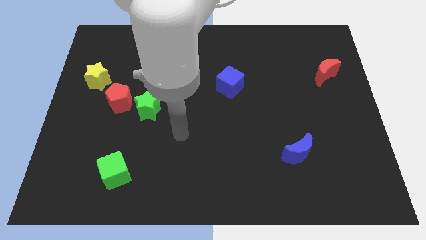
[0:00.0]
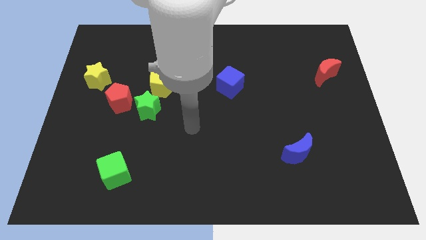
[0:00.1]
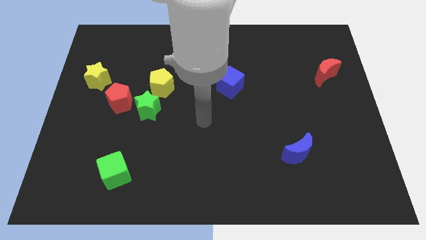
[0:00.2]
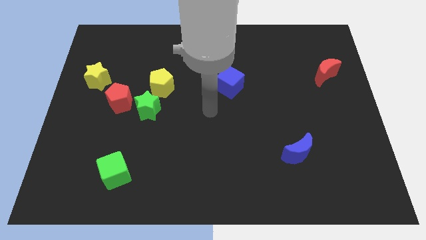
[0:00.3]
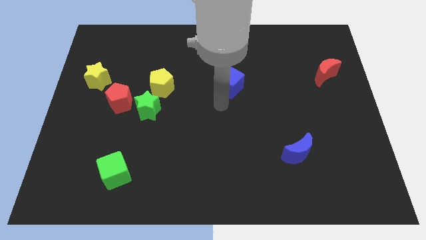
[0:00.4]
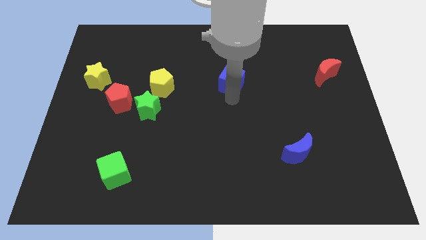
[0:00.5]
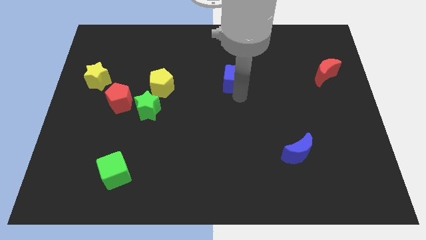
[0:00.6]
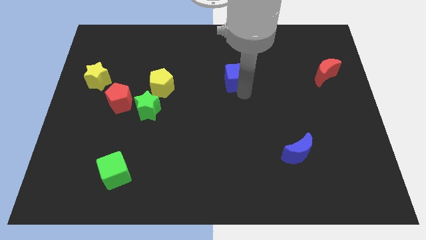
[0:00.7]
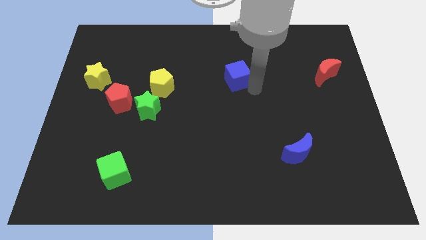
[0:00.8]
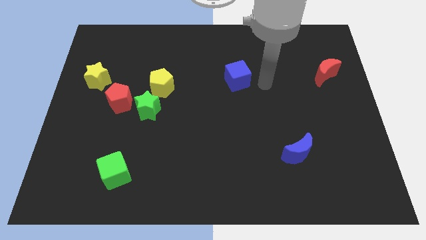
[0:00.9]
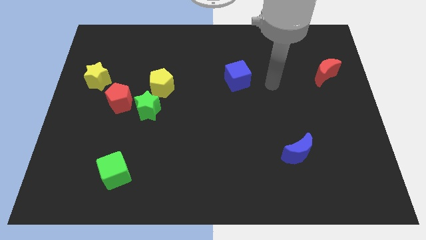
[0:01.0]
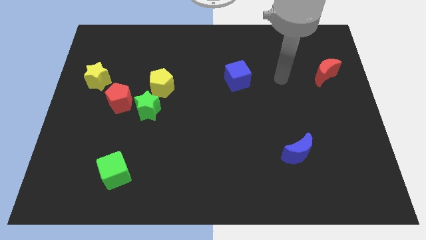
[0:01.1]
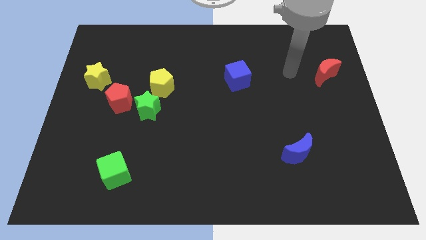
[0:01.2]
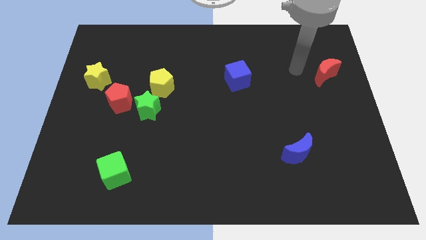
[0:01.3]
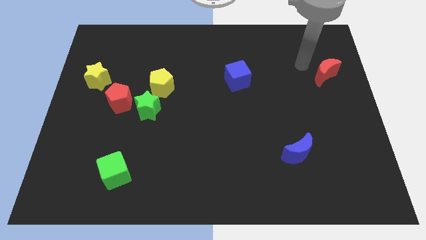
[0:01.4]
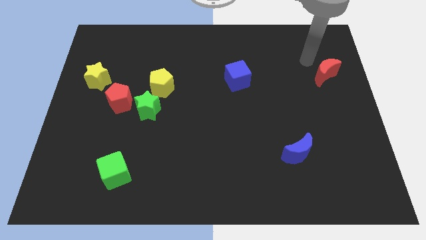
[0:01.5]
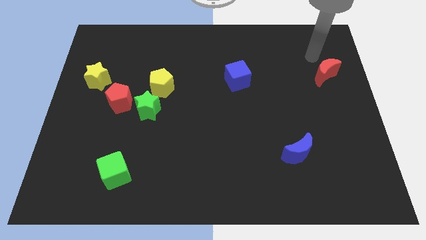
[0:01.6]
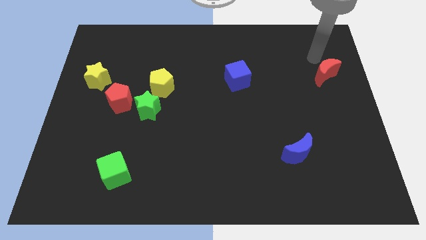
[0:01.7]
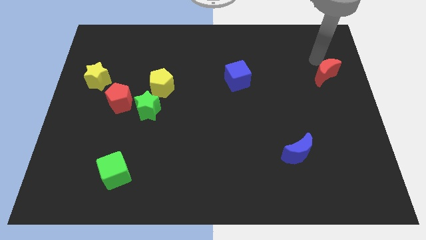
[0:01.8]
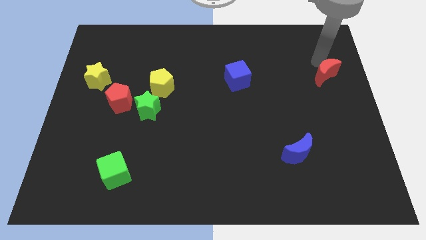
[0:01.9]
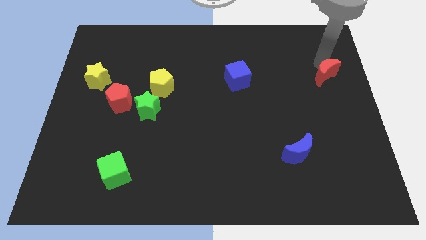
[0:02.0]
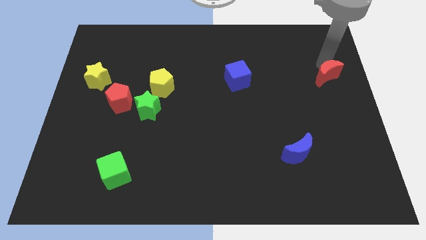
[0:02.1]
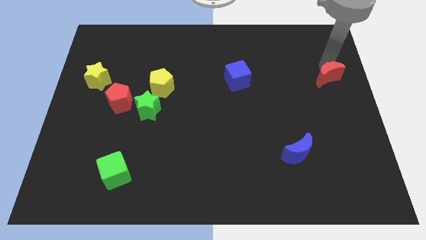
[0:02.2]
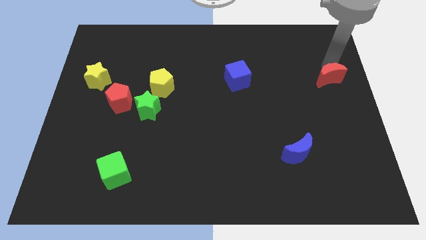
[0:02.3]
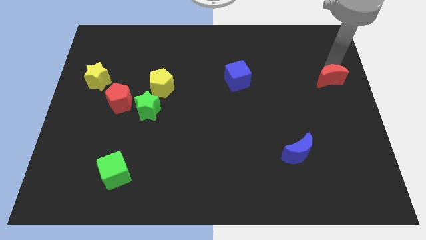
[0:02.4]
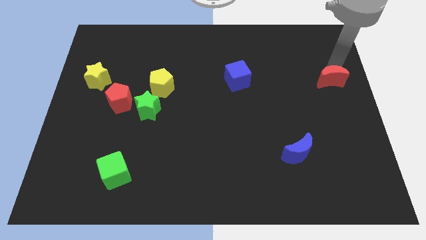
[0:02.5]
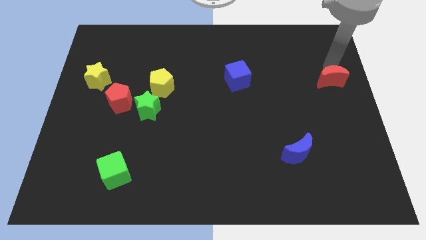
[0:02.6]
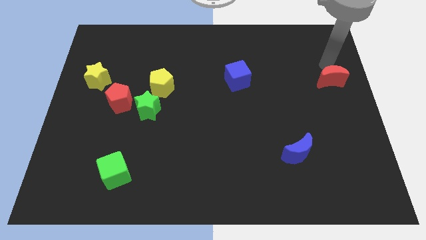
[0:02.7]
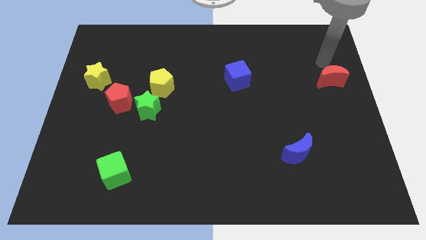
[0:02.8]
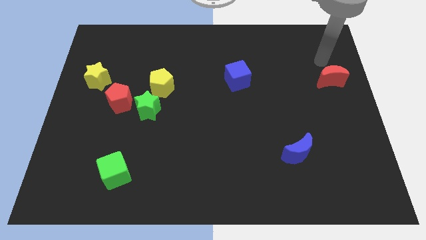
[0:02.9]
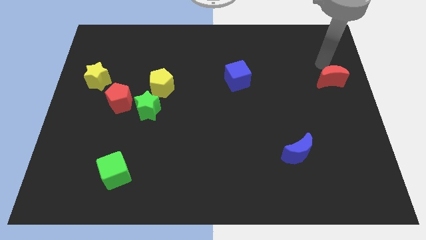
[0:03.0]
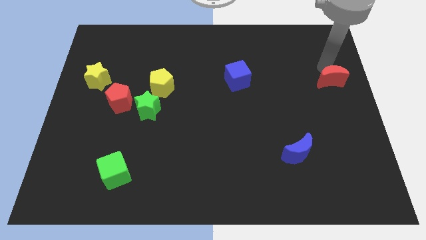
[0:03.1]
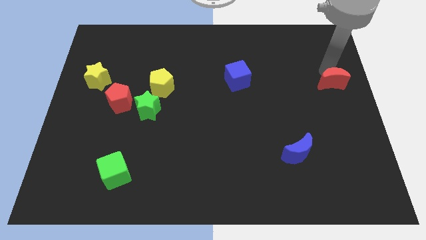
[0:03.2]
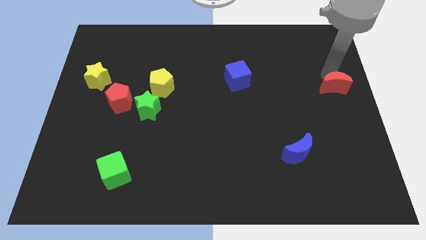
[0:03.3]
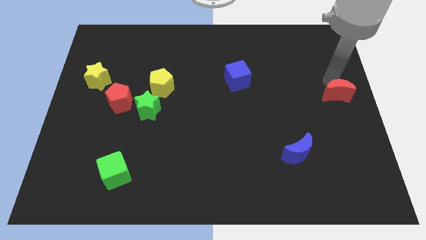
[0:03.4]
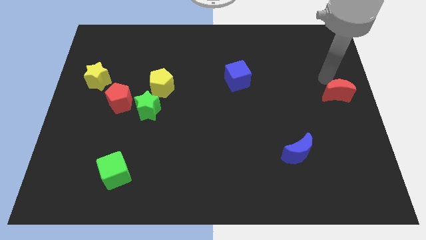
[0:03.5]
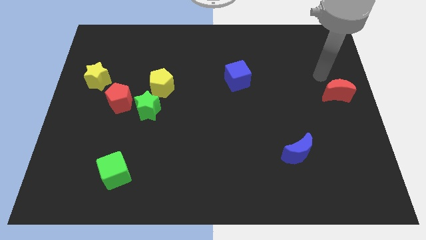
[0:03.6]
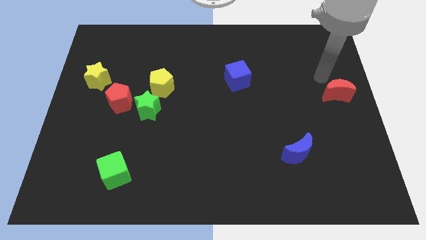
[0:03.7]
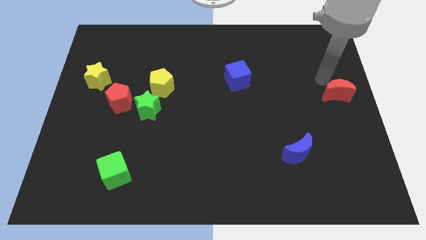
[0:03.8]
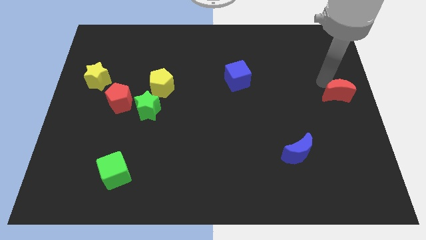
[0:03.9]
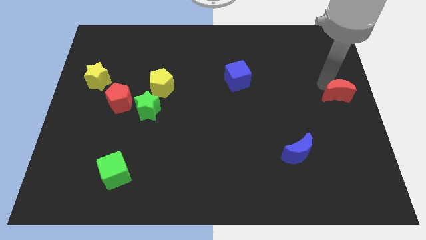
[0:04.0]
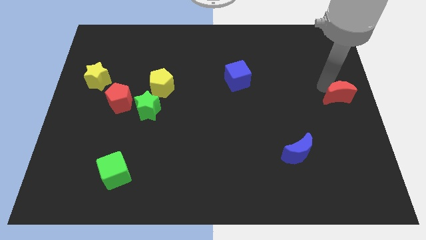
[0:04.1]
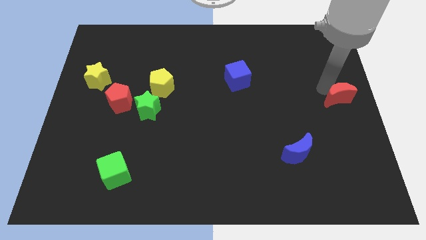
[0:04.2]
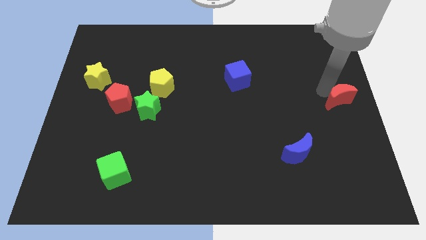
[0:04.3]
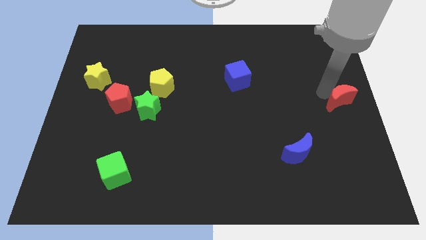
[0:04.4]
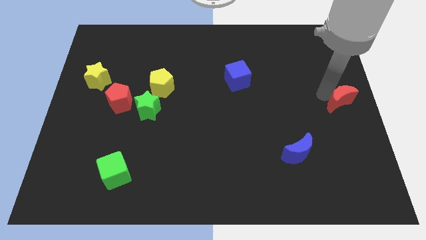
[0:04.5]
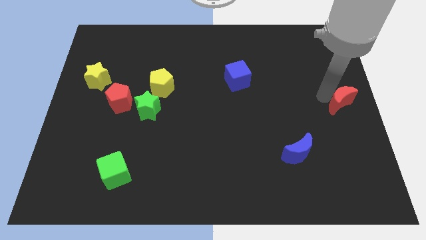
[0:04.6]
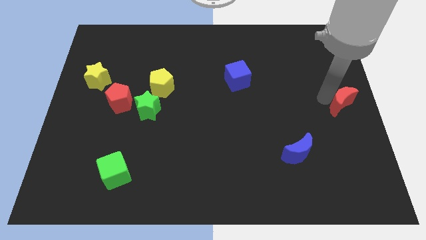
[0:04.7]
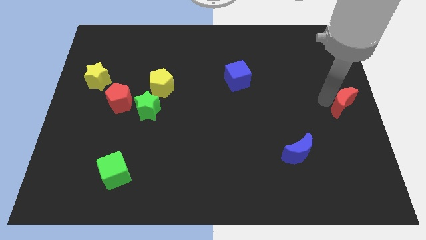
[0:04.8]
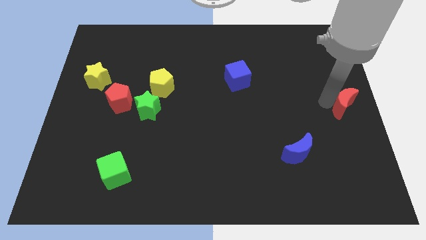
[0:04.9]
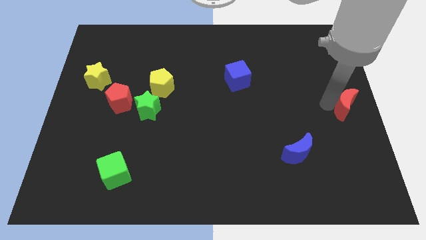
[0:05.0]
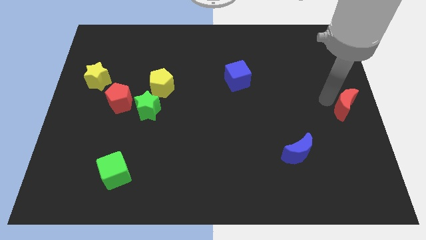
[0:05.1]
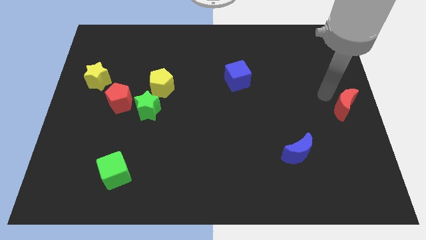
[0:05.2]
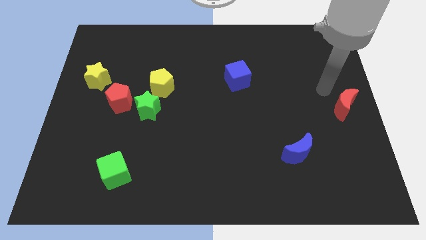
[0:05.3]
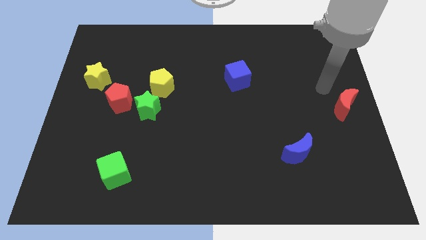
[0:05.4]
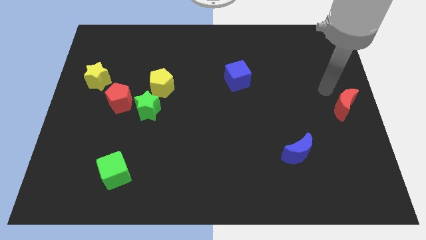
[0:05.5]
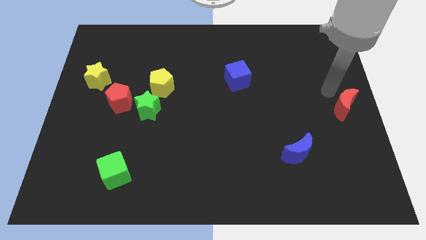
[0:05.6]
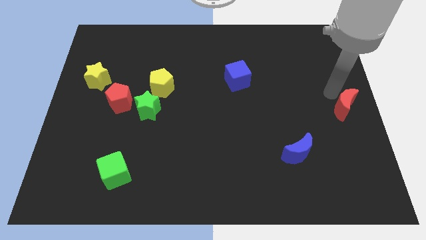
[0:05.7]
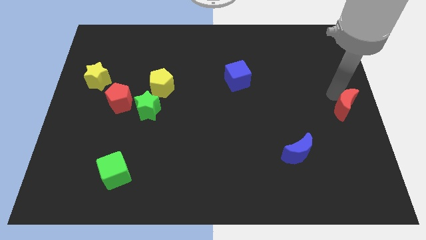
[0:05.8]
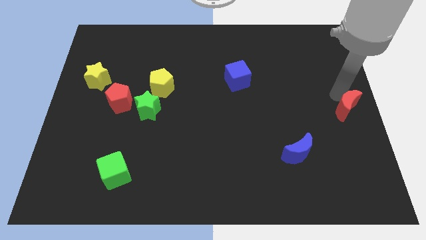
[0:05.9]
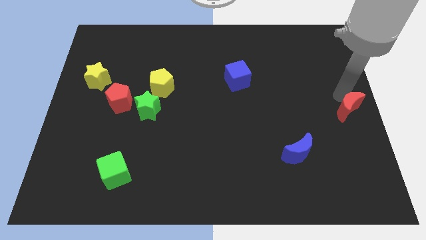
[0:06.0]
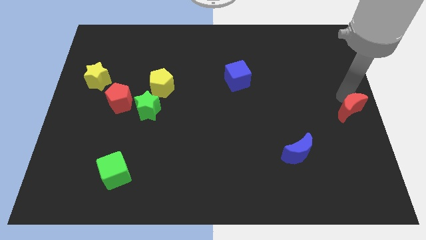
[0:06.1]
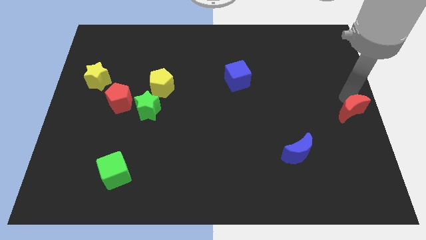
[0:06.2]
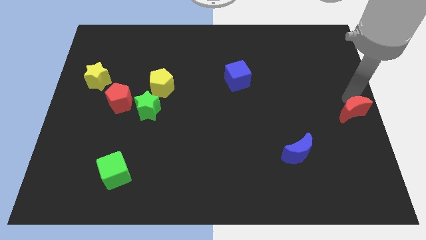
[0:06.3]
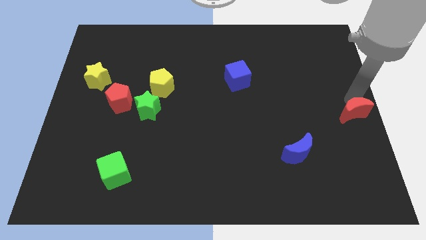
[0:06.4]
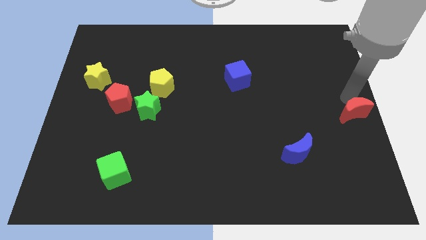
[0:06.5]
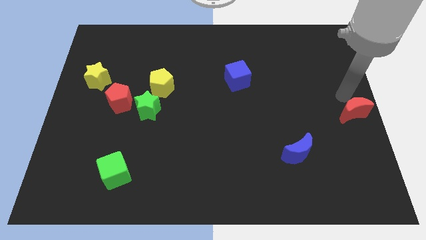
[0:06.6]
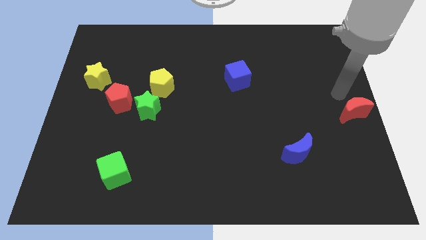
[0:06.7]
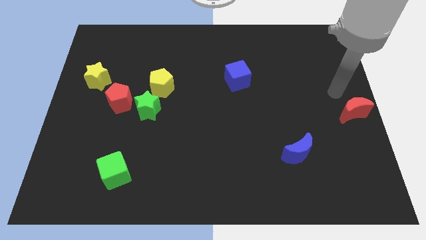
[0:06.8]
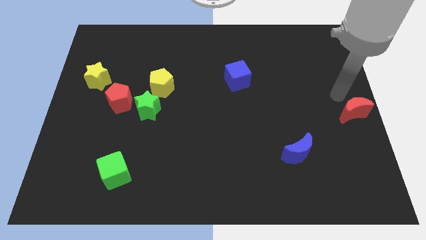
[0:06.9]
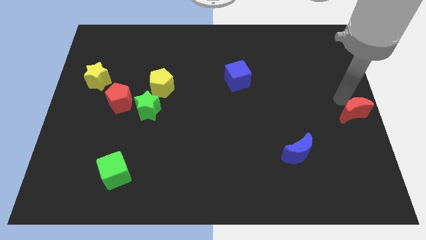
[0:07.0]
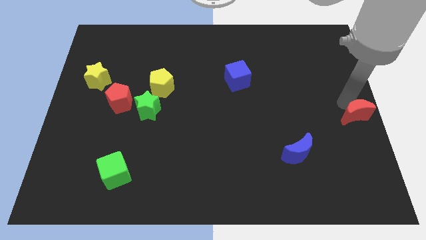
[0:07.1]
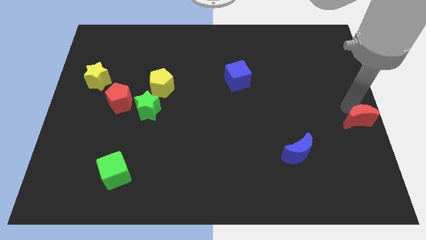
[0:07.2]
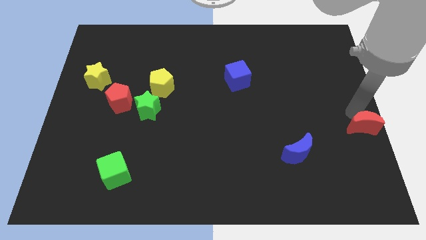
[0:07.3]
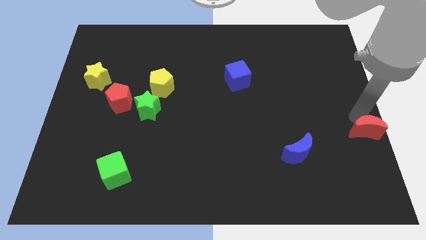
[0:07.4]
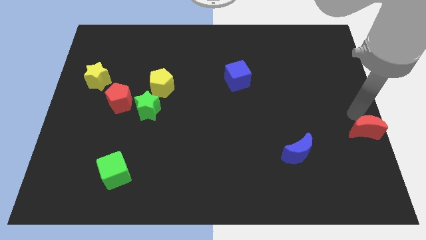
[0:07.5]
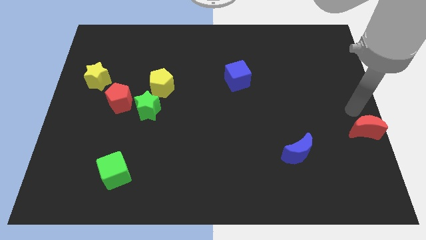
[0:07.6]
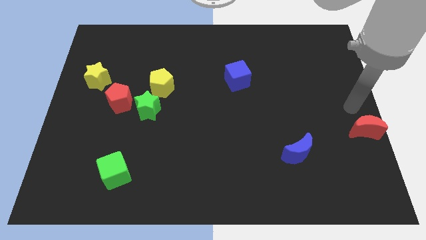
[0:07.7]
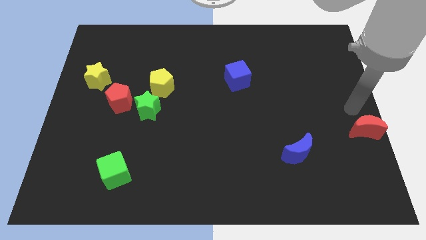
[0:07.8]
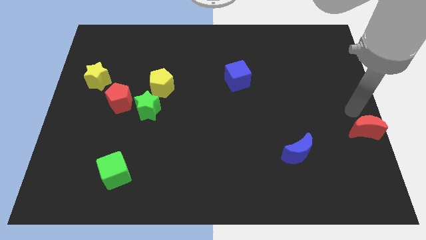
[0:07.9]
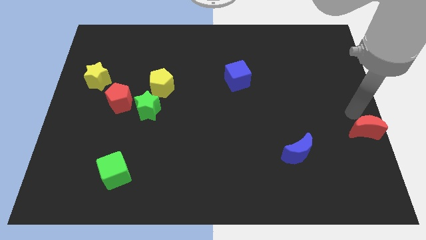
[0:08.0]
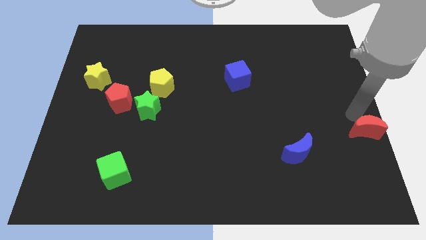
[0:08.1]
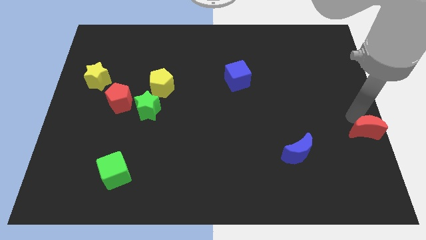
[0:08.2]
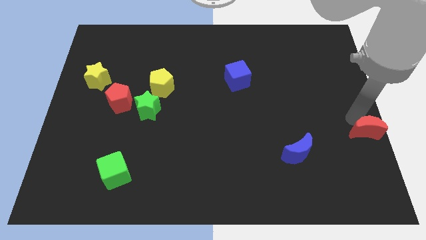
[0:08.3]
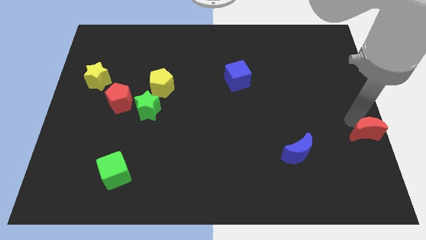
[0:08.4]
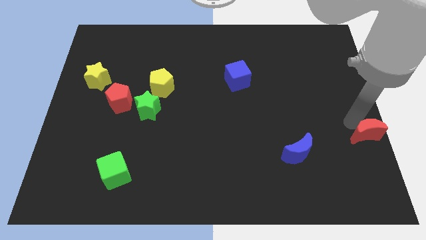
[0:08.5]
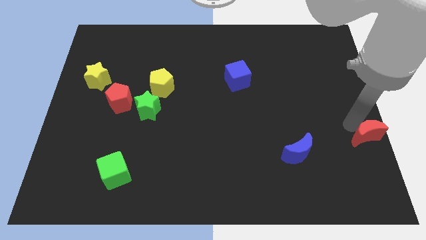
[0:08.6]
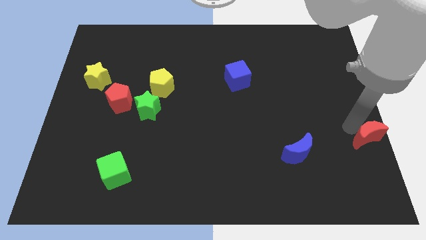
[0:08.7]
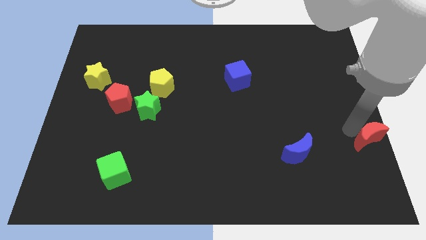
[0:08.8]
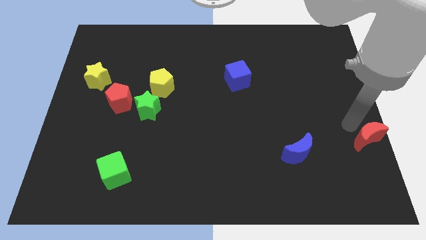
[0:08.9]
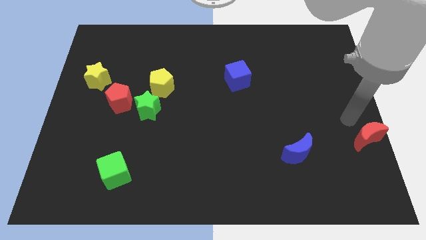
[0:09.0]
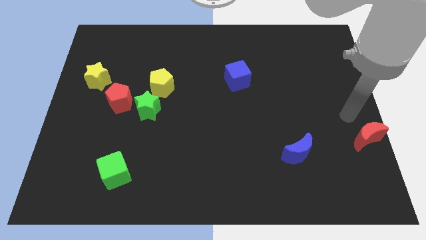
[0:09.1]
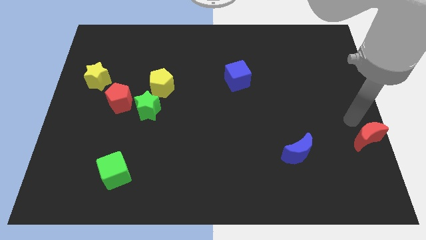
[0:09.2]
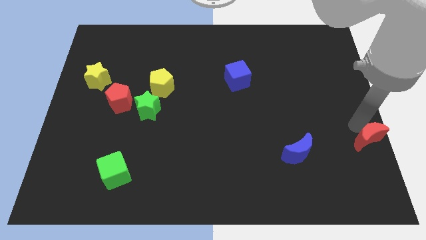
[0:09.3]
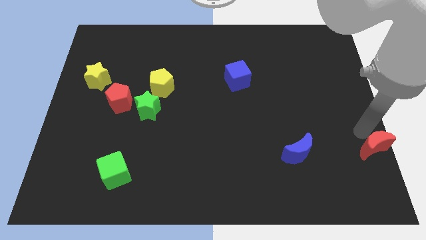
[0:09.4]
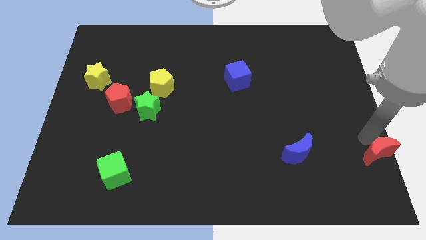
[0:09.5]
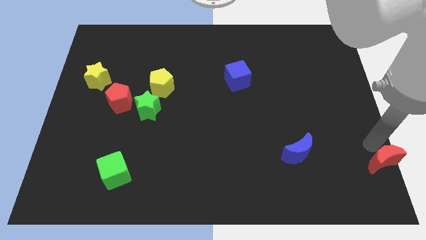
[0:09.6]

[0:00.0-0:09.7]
move the red moon to the lower right corner
